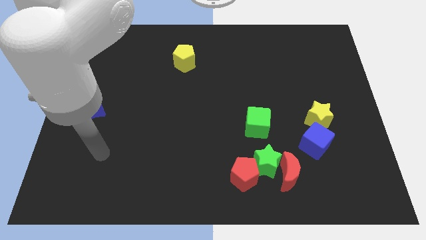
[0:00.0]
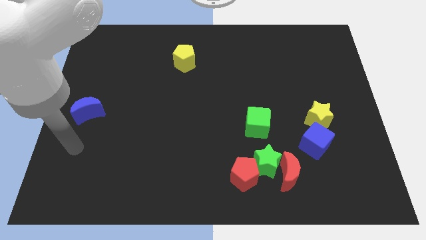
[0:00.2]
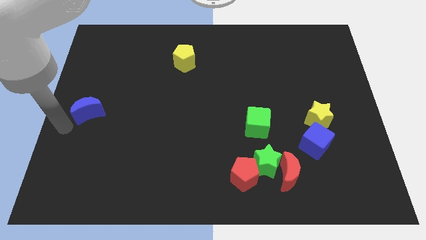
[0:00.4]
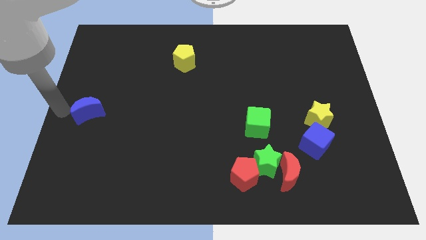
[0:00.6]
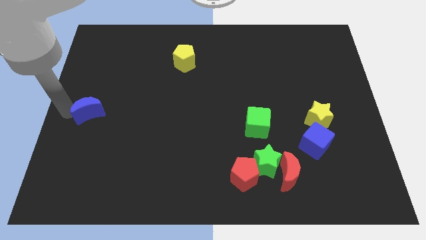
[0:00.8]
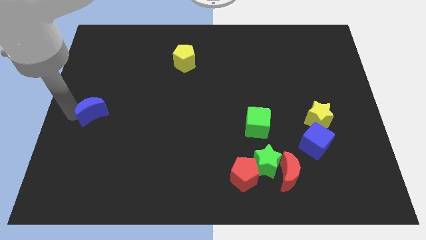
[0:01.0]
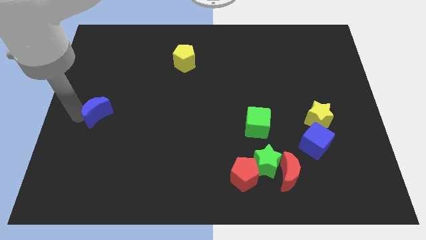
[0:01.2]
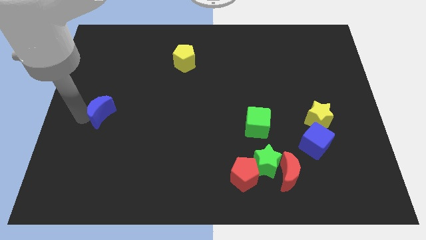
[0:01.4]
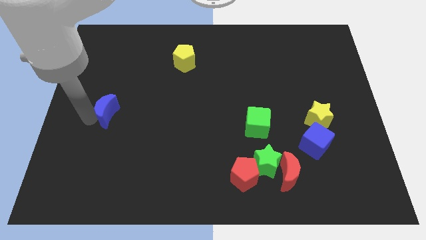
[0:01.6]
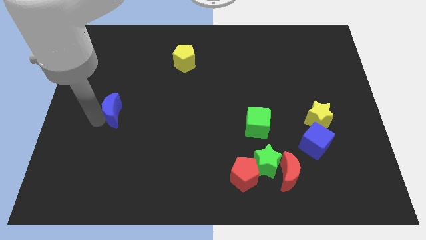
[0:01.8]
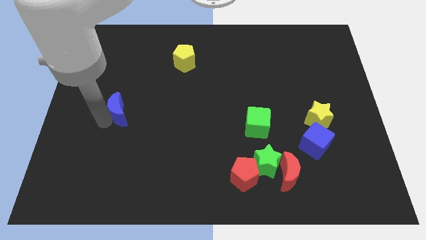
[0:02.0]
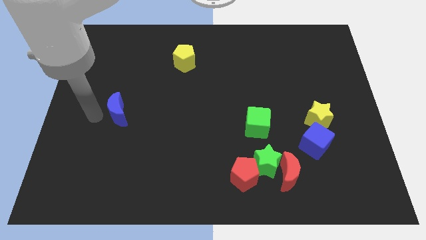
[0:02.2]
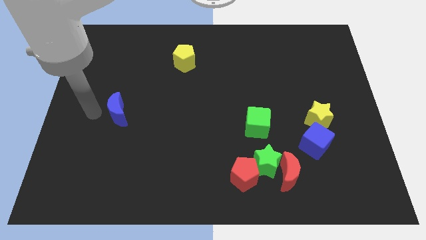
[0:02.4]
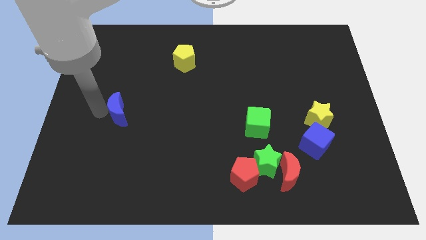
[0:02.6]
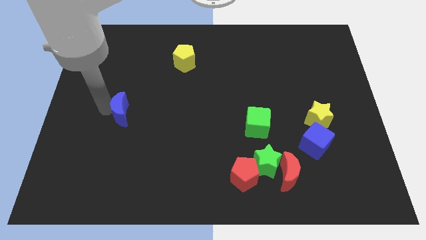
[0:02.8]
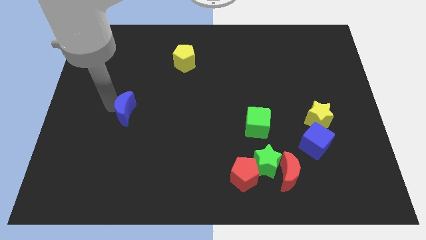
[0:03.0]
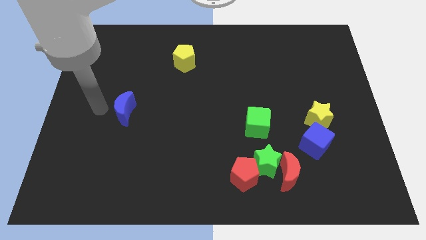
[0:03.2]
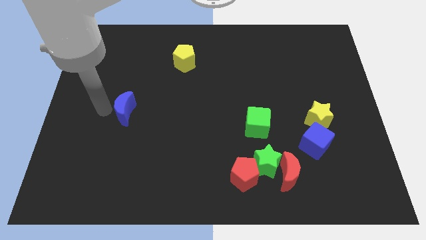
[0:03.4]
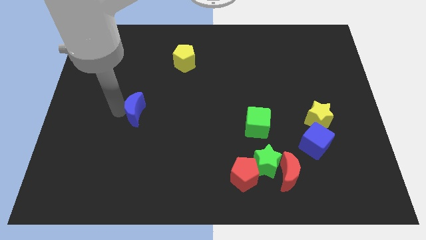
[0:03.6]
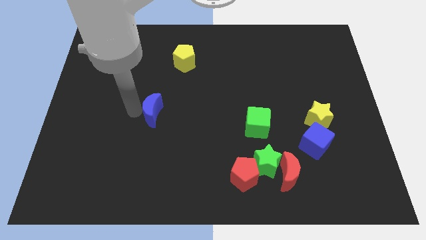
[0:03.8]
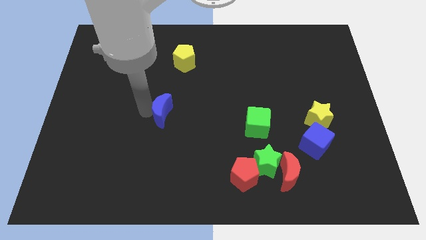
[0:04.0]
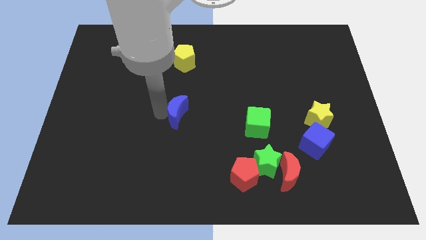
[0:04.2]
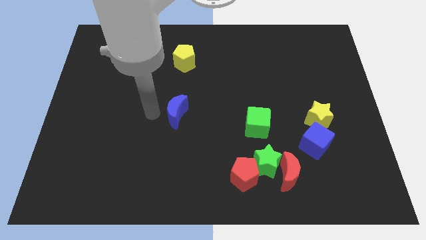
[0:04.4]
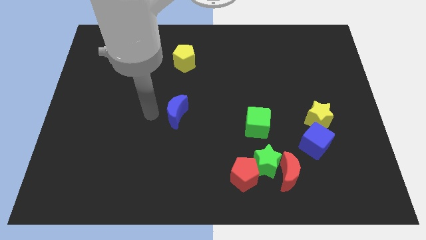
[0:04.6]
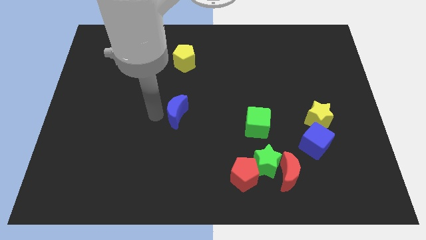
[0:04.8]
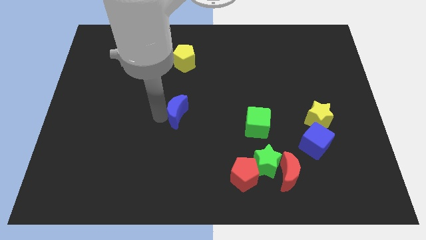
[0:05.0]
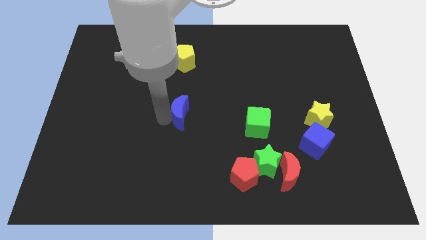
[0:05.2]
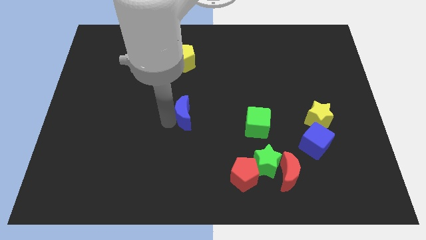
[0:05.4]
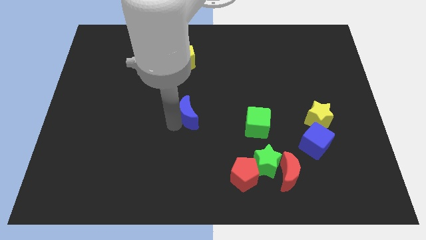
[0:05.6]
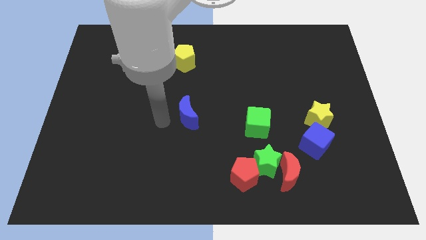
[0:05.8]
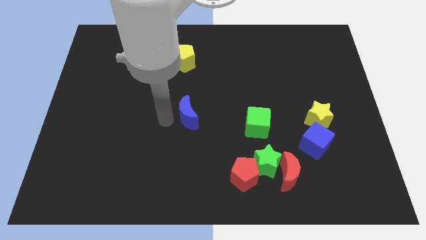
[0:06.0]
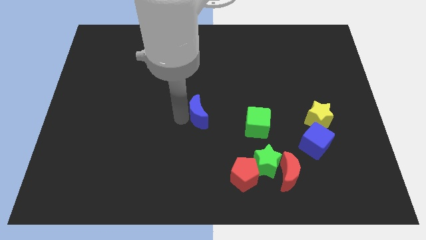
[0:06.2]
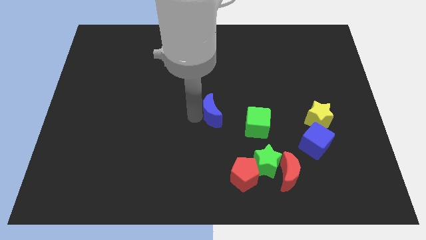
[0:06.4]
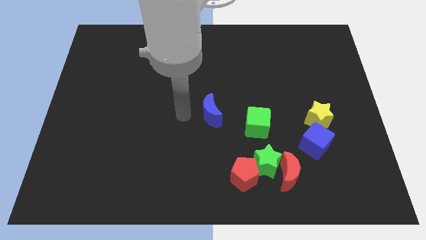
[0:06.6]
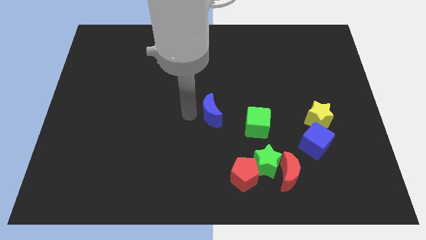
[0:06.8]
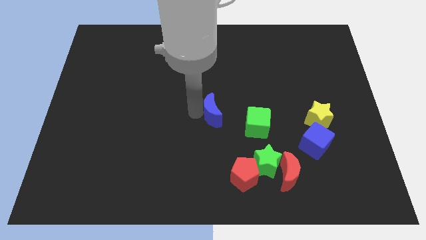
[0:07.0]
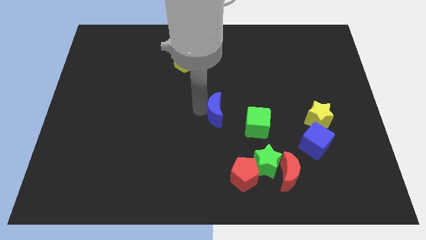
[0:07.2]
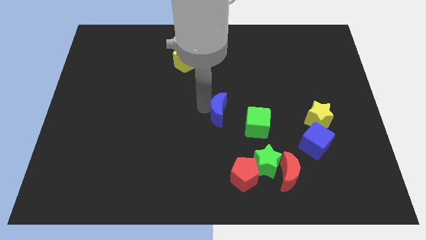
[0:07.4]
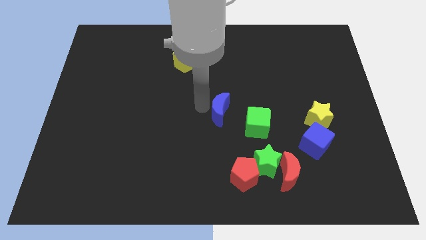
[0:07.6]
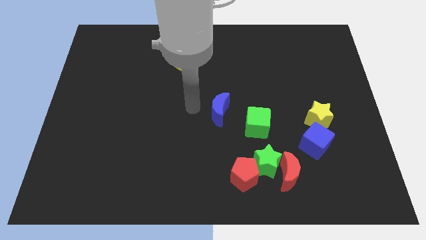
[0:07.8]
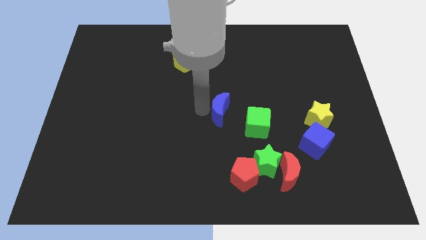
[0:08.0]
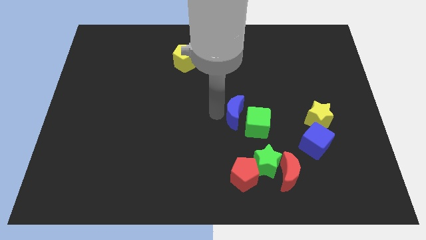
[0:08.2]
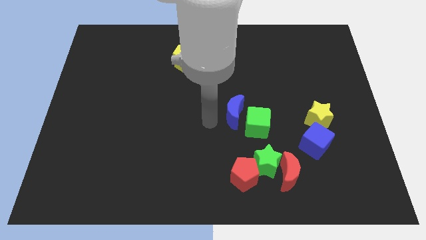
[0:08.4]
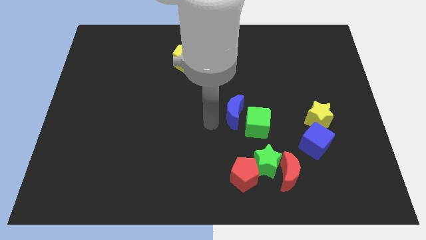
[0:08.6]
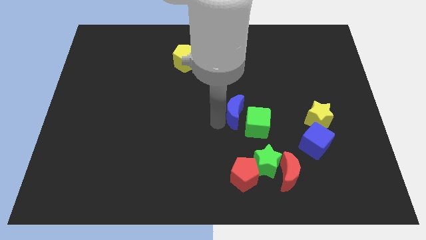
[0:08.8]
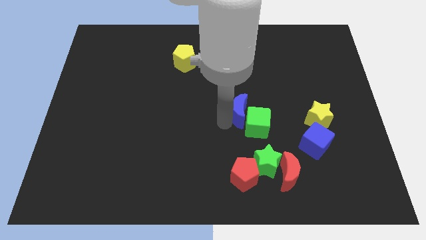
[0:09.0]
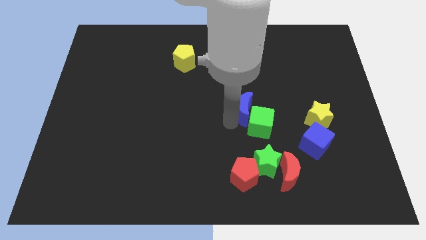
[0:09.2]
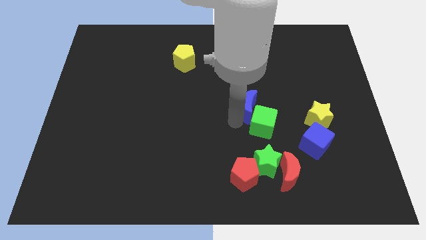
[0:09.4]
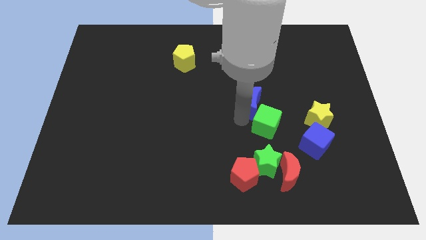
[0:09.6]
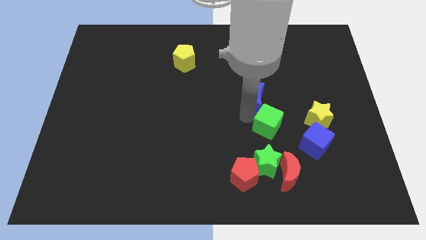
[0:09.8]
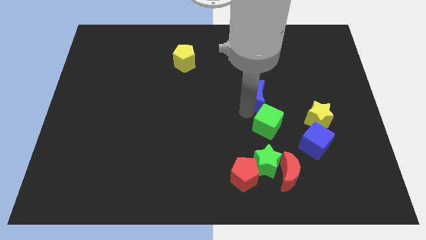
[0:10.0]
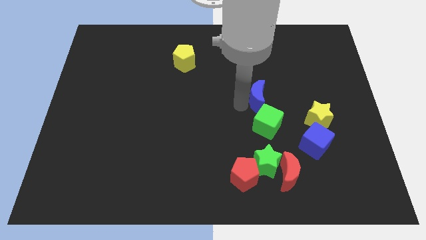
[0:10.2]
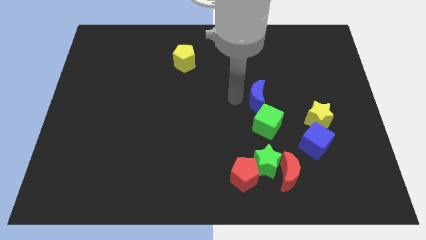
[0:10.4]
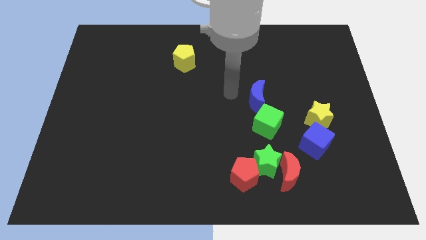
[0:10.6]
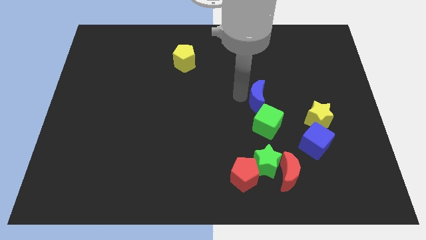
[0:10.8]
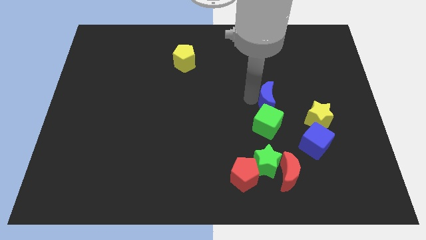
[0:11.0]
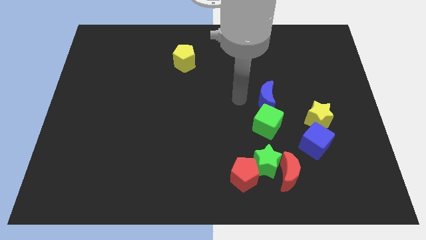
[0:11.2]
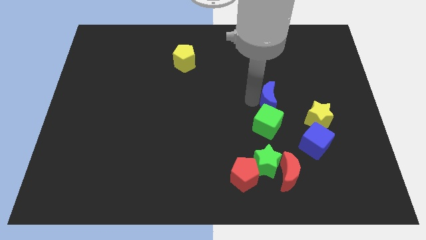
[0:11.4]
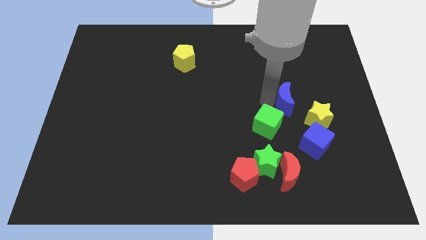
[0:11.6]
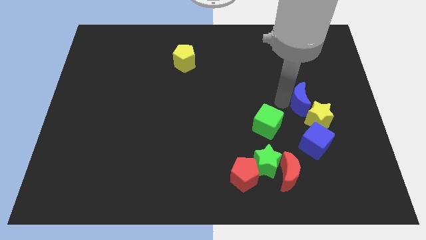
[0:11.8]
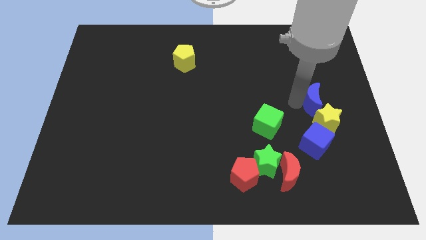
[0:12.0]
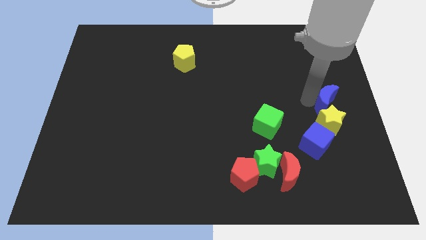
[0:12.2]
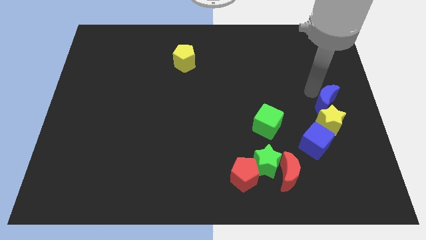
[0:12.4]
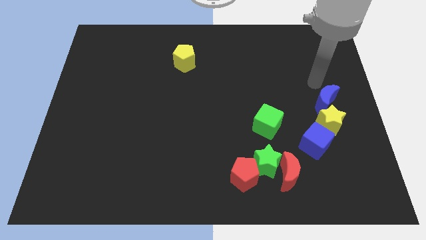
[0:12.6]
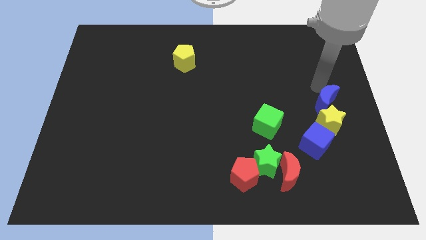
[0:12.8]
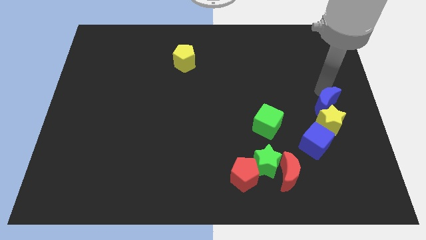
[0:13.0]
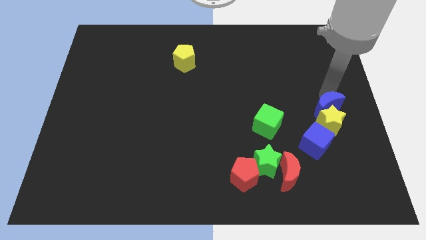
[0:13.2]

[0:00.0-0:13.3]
slide the blue moon diagonally up and to the right of the blue cube
